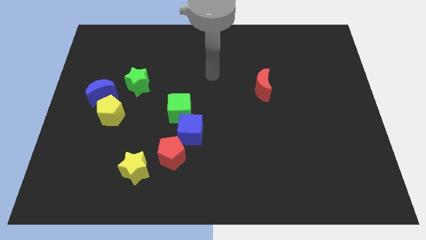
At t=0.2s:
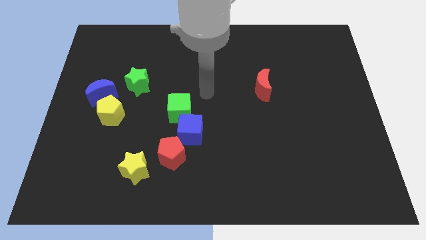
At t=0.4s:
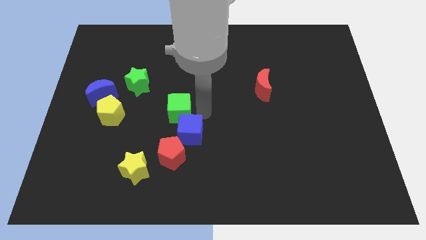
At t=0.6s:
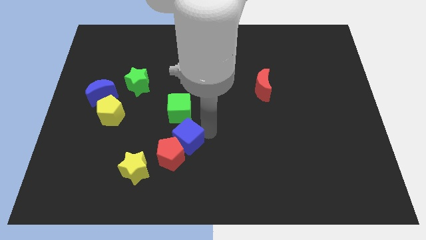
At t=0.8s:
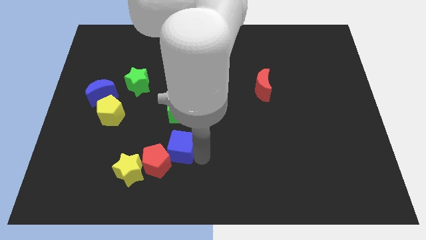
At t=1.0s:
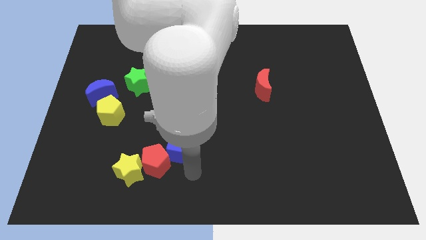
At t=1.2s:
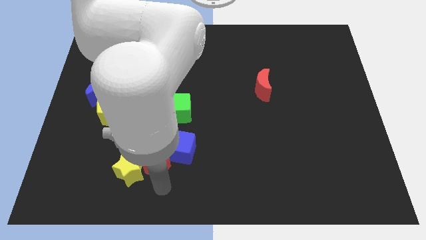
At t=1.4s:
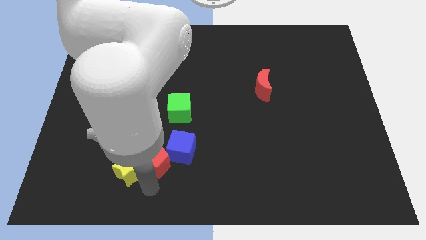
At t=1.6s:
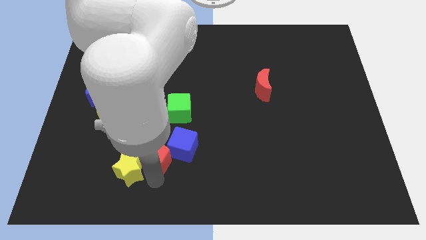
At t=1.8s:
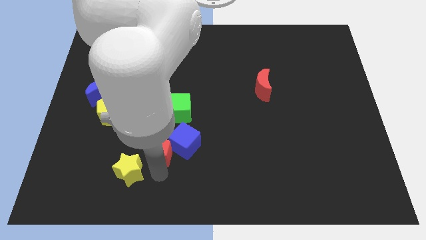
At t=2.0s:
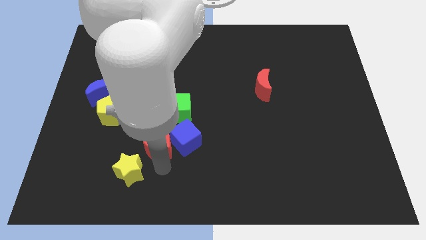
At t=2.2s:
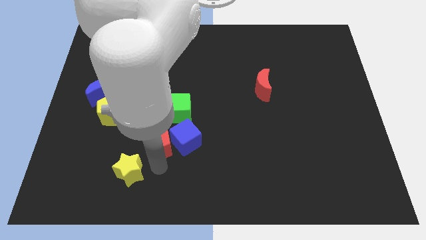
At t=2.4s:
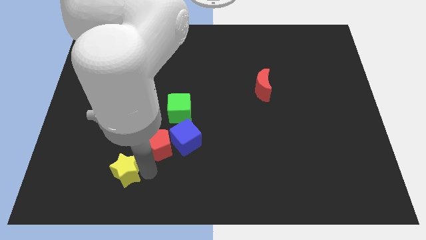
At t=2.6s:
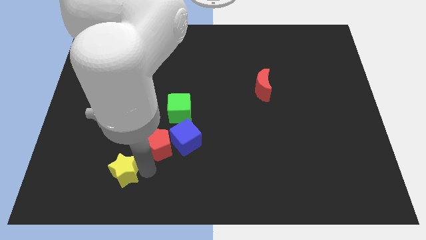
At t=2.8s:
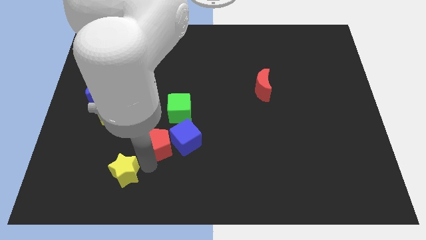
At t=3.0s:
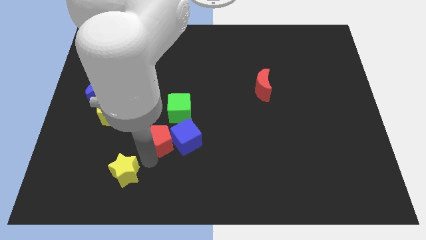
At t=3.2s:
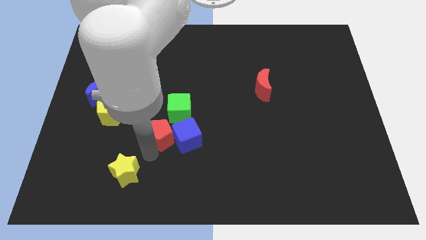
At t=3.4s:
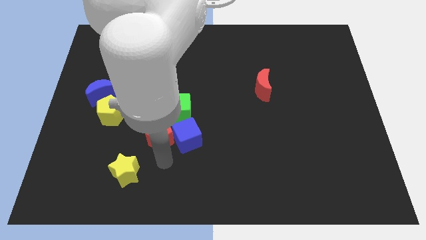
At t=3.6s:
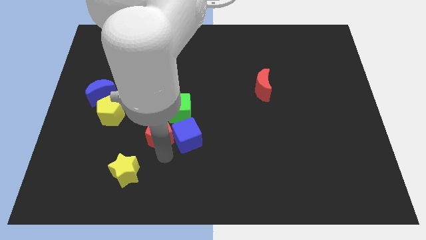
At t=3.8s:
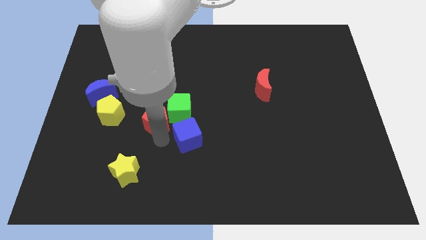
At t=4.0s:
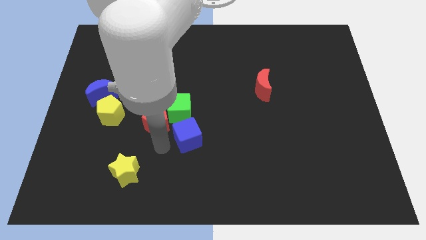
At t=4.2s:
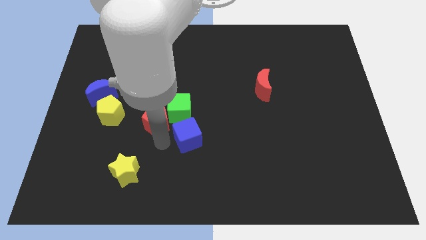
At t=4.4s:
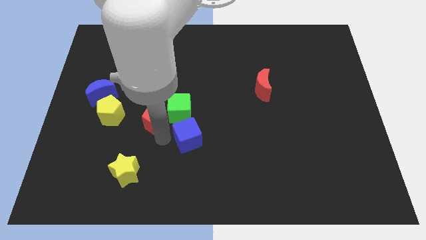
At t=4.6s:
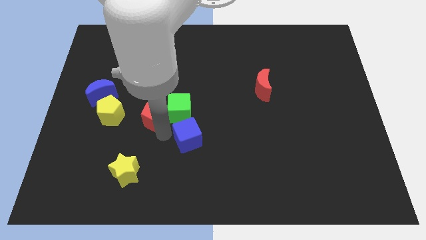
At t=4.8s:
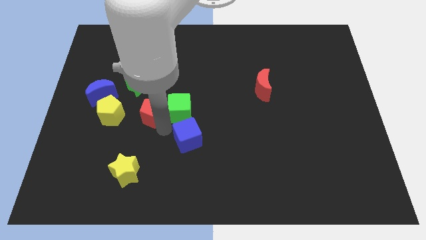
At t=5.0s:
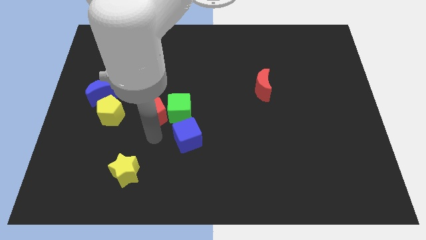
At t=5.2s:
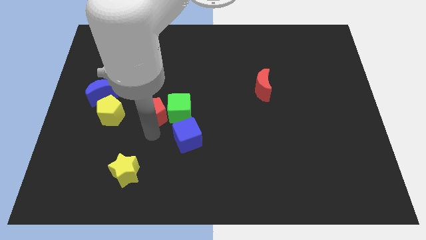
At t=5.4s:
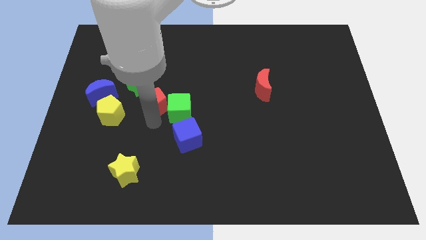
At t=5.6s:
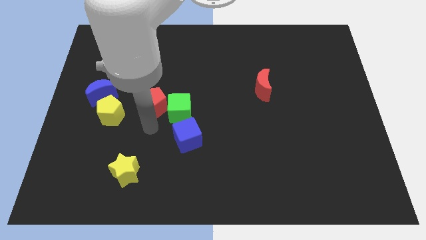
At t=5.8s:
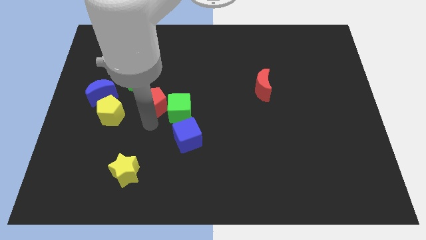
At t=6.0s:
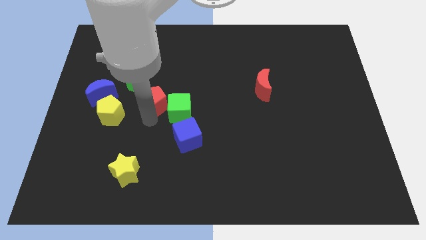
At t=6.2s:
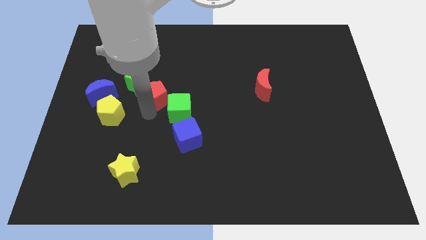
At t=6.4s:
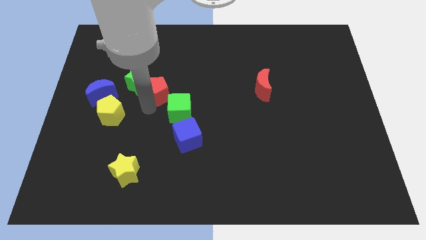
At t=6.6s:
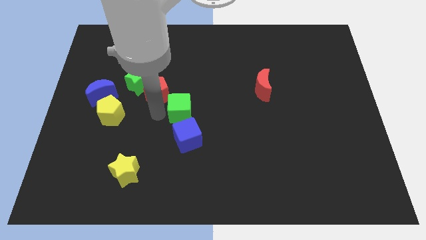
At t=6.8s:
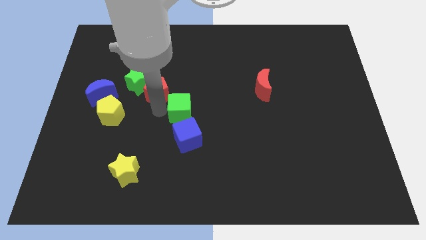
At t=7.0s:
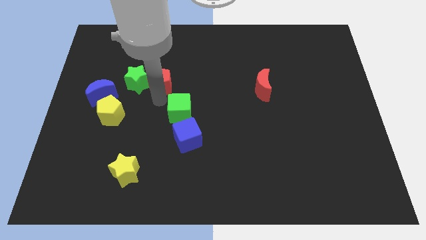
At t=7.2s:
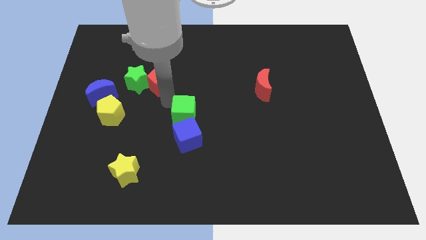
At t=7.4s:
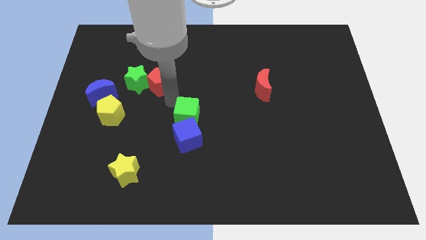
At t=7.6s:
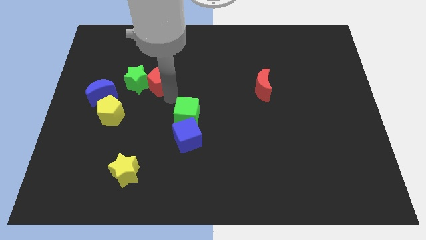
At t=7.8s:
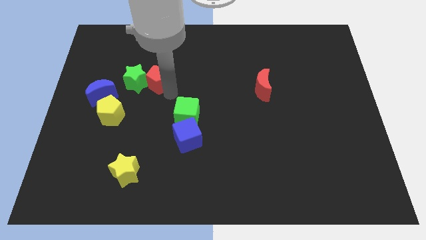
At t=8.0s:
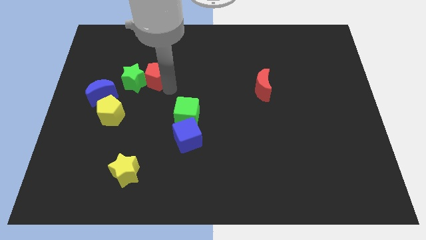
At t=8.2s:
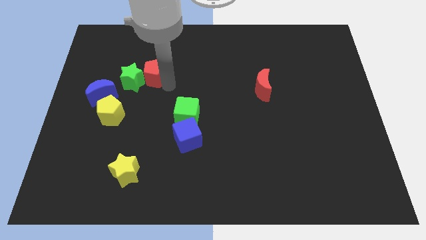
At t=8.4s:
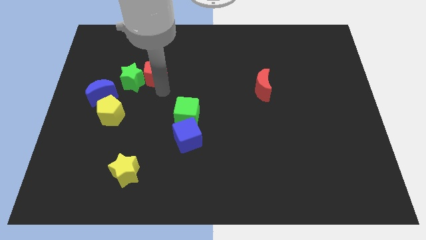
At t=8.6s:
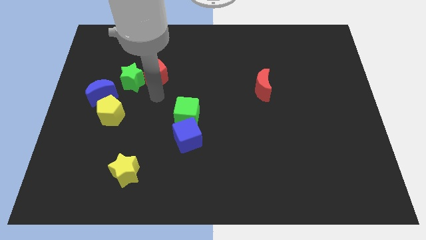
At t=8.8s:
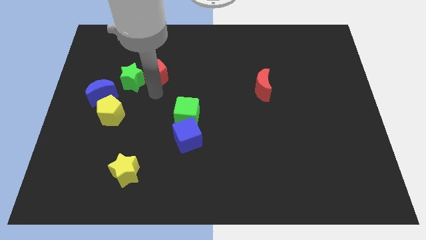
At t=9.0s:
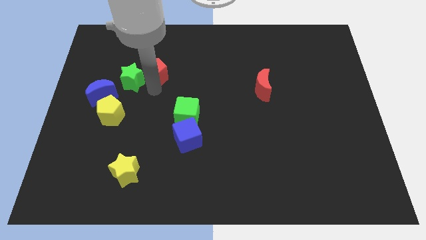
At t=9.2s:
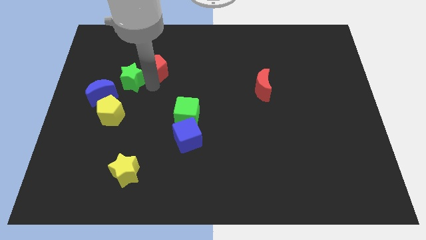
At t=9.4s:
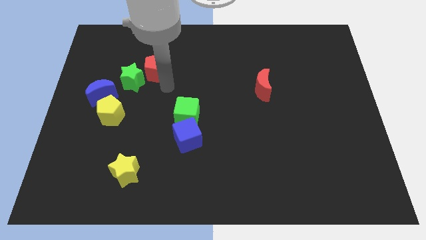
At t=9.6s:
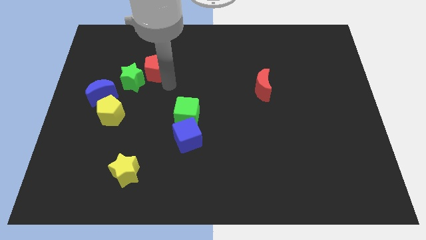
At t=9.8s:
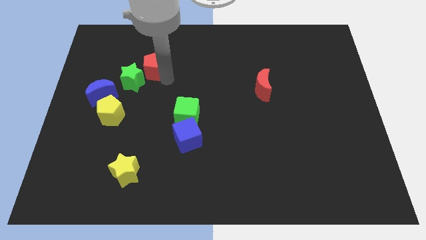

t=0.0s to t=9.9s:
slide the red pentagon above the green star

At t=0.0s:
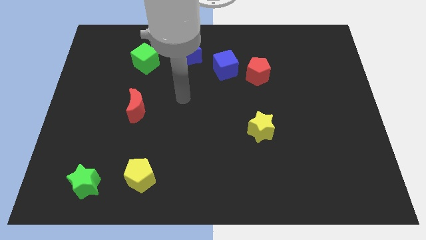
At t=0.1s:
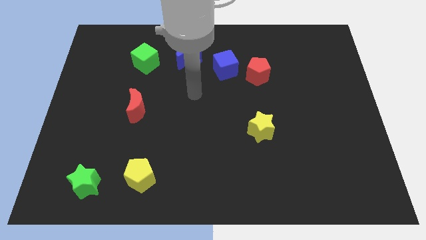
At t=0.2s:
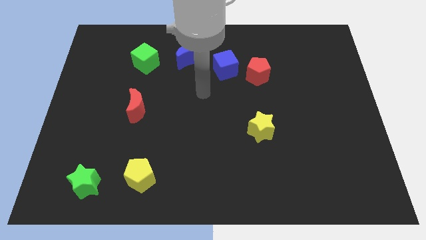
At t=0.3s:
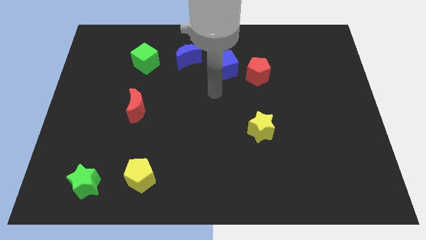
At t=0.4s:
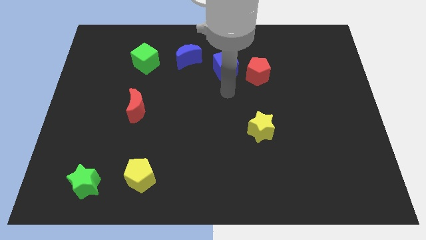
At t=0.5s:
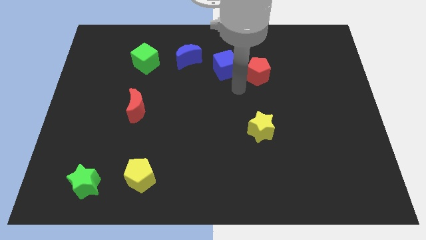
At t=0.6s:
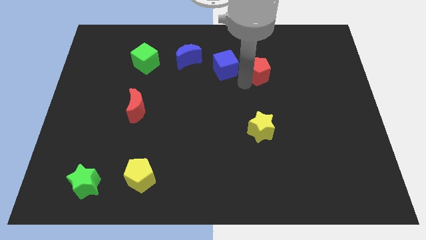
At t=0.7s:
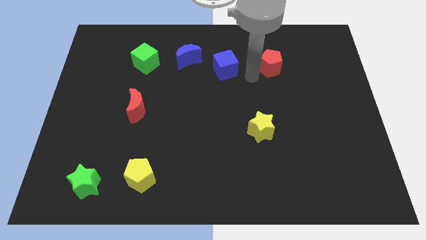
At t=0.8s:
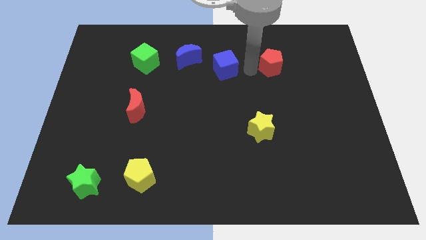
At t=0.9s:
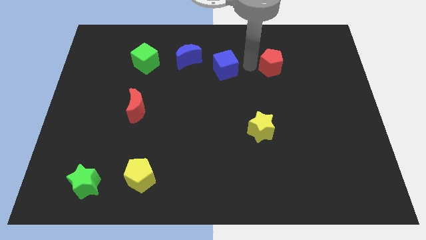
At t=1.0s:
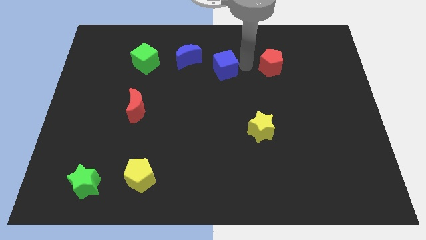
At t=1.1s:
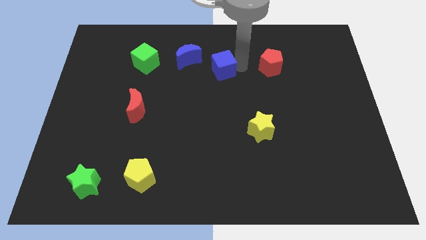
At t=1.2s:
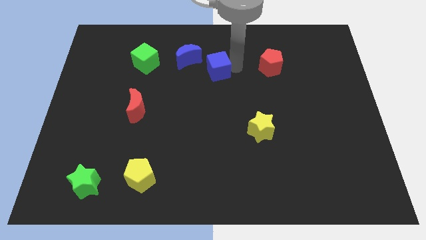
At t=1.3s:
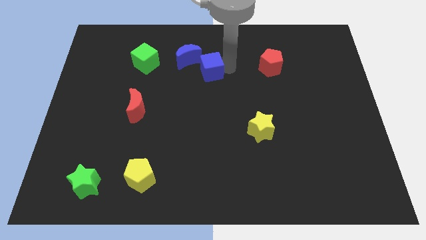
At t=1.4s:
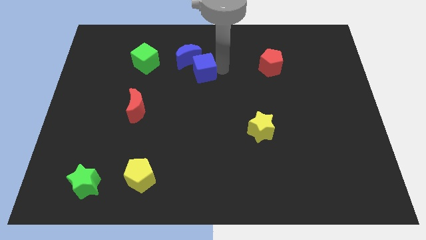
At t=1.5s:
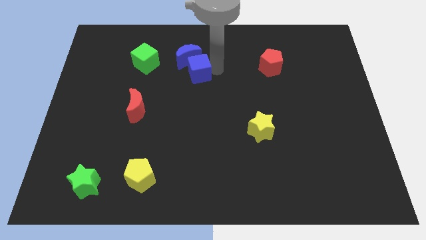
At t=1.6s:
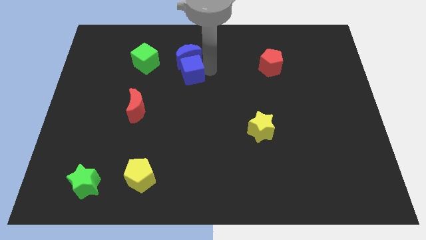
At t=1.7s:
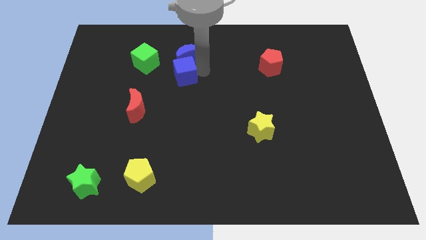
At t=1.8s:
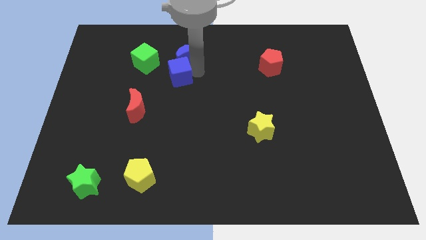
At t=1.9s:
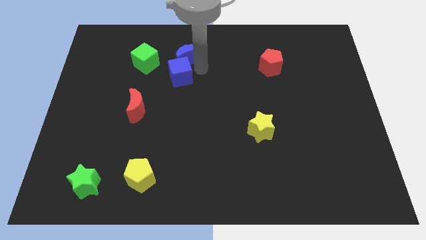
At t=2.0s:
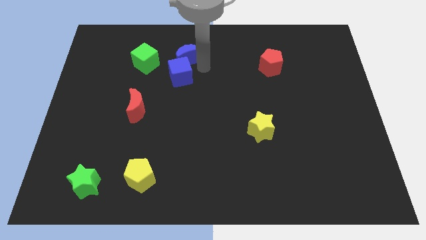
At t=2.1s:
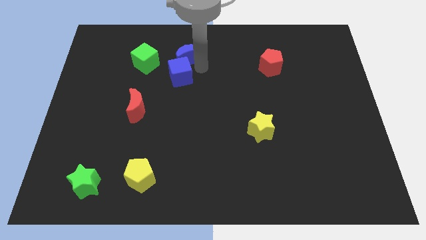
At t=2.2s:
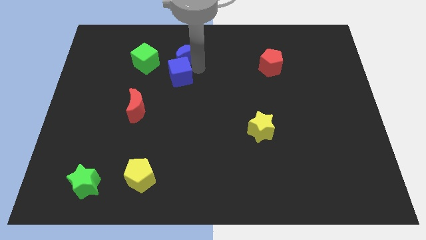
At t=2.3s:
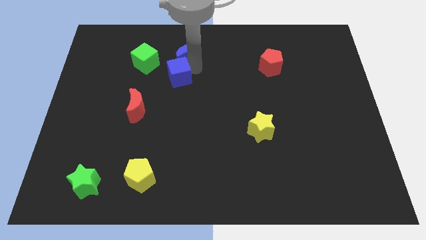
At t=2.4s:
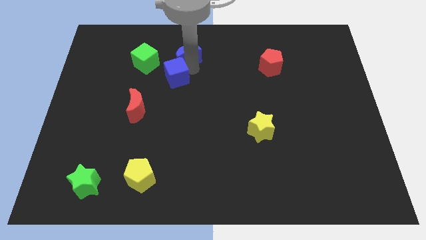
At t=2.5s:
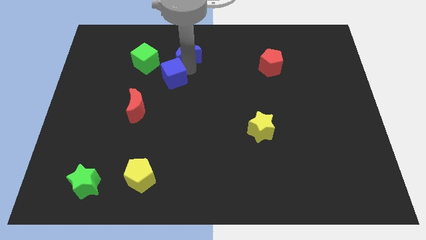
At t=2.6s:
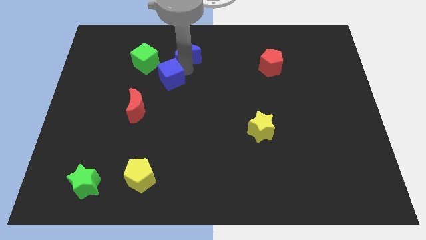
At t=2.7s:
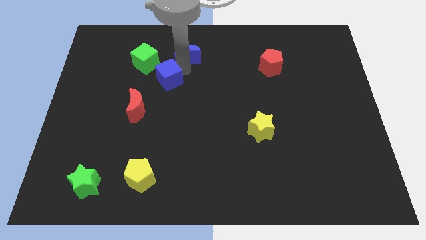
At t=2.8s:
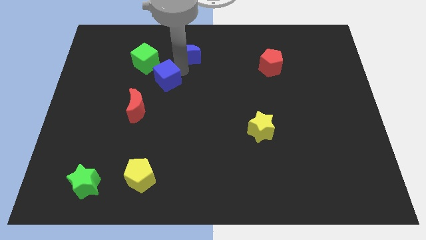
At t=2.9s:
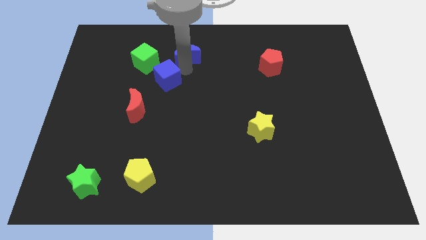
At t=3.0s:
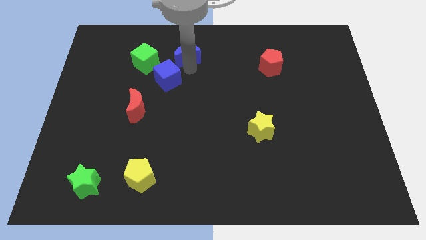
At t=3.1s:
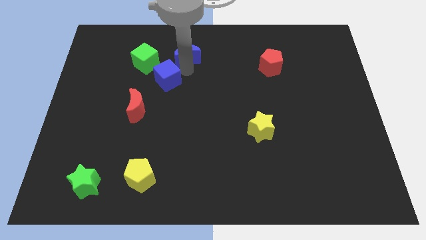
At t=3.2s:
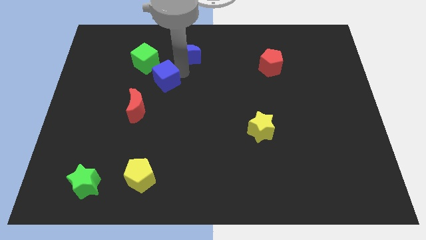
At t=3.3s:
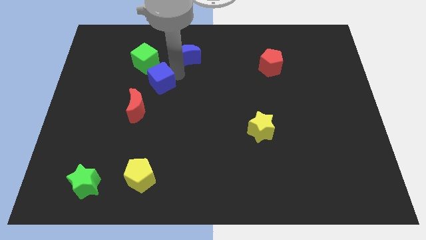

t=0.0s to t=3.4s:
put the blue cube below the green cube
